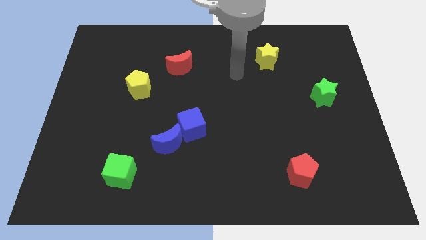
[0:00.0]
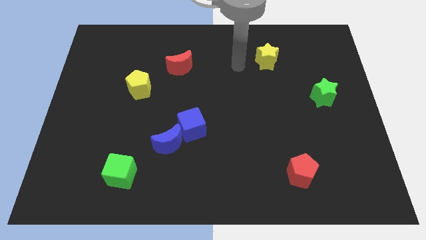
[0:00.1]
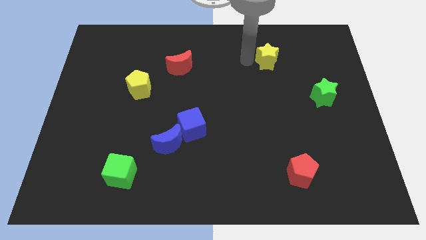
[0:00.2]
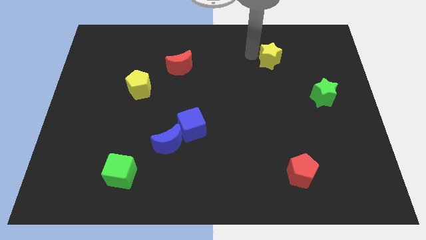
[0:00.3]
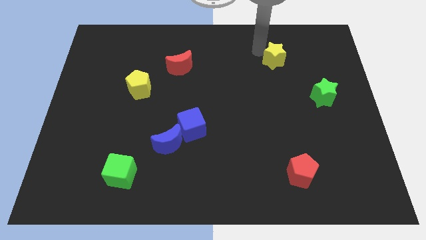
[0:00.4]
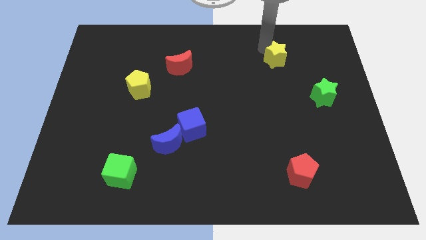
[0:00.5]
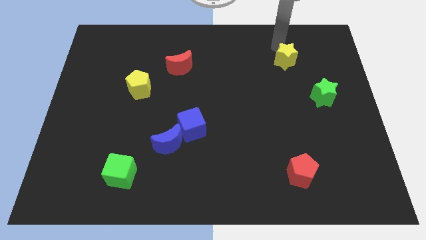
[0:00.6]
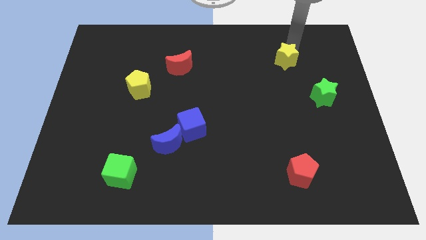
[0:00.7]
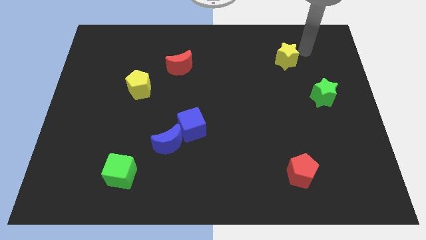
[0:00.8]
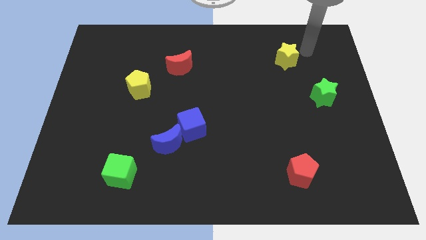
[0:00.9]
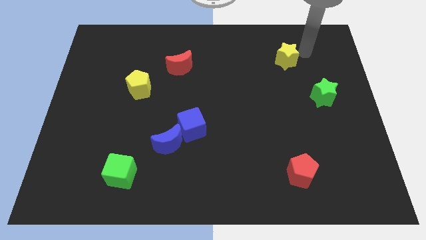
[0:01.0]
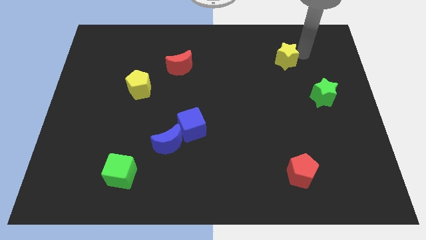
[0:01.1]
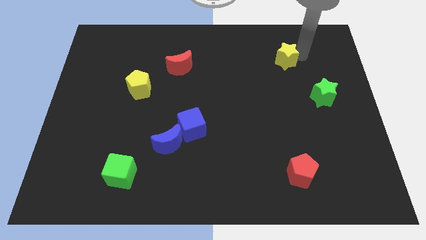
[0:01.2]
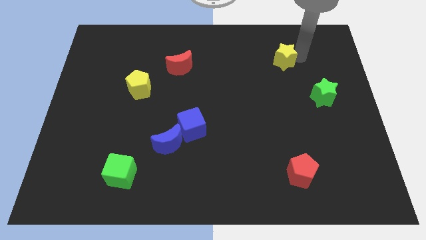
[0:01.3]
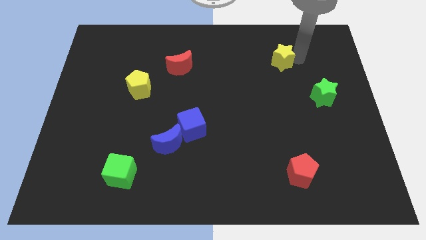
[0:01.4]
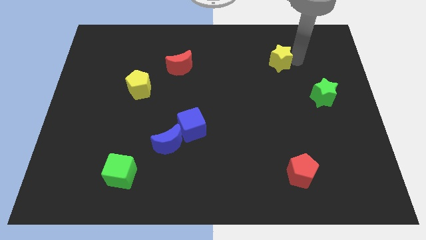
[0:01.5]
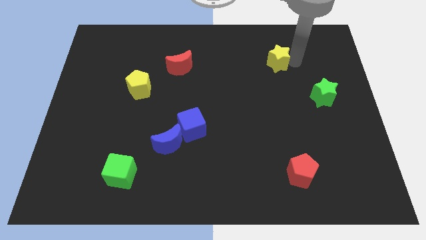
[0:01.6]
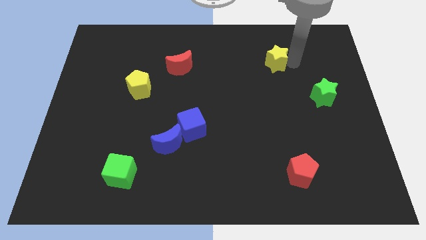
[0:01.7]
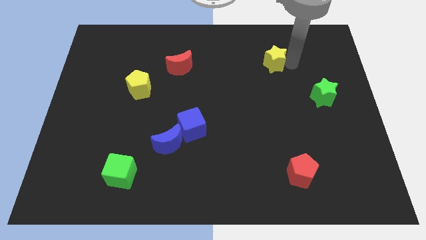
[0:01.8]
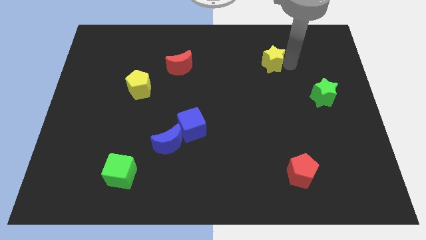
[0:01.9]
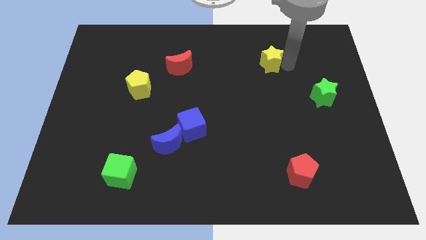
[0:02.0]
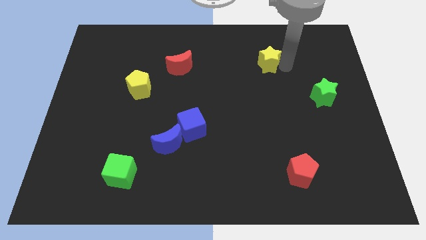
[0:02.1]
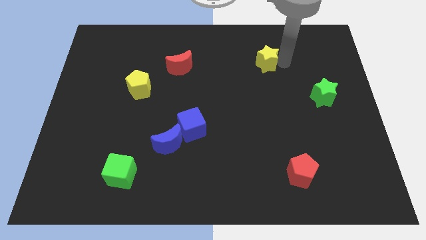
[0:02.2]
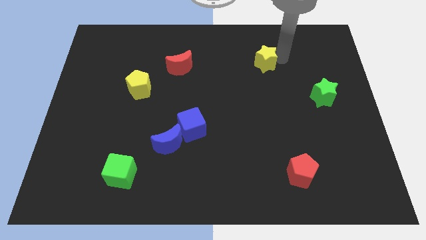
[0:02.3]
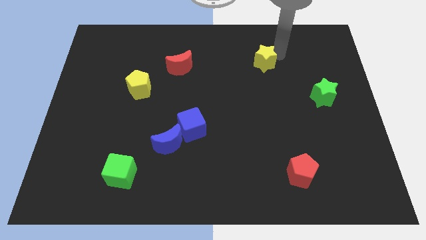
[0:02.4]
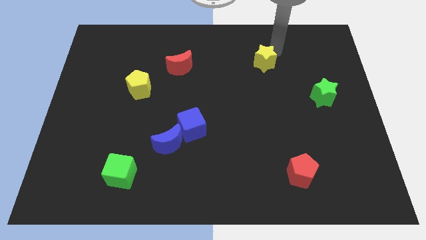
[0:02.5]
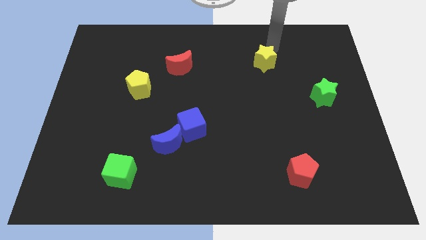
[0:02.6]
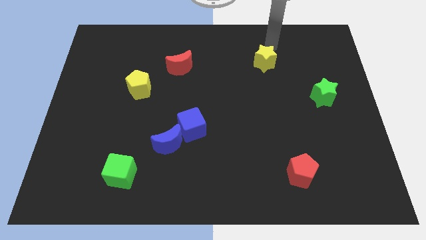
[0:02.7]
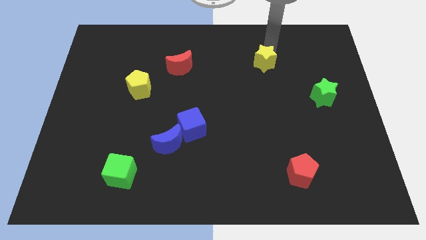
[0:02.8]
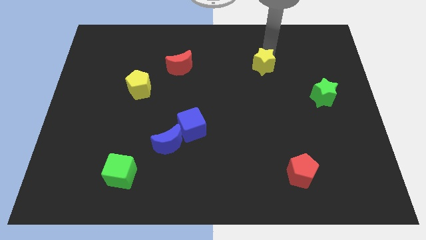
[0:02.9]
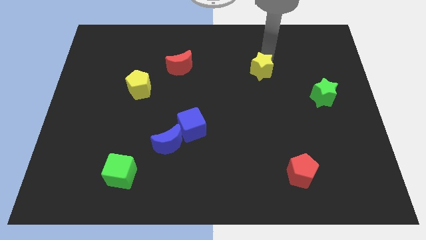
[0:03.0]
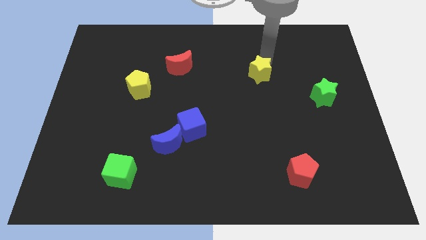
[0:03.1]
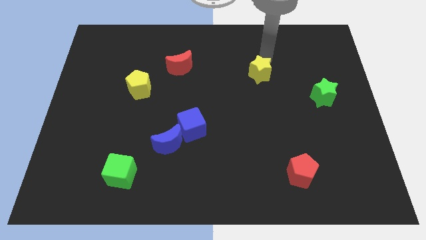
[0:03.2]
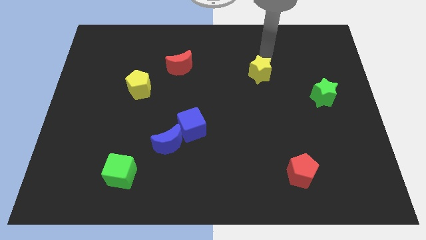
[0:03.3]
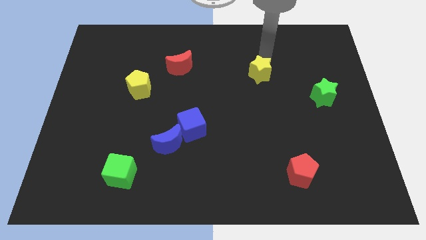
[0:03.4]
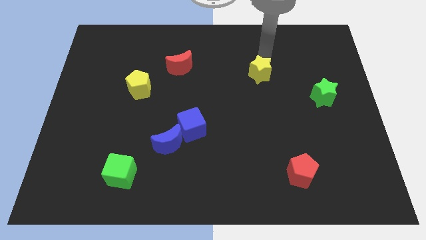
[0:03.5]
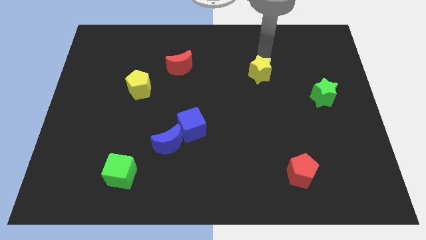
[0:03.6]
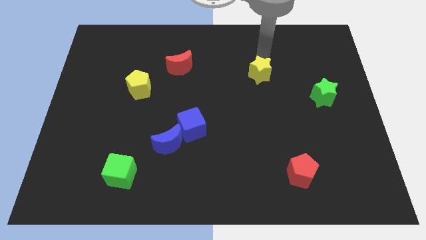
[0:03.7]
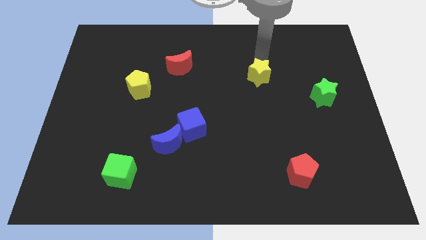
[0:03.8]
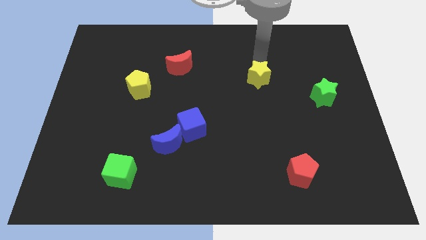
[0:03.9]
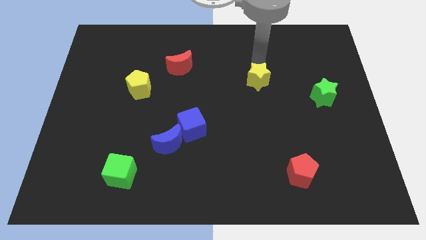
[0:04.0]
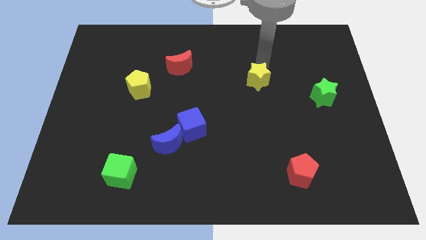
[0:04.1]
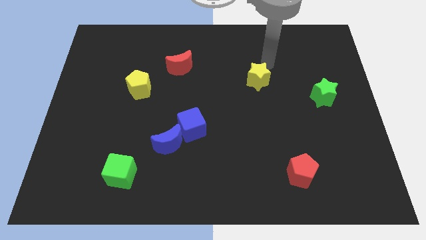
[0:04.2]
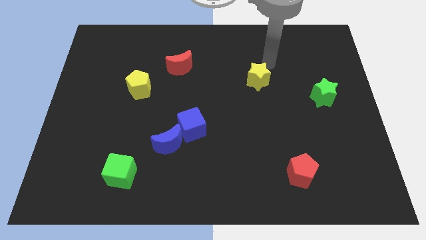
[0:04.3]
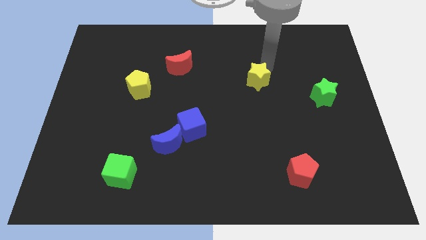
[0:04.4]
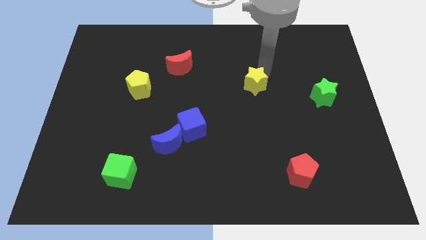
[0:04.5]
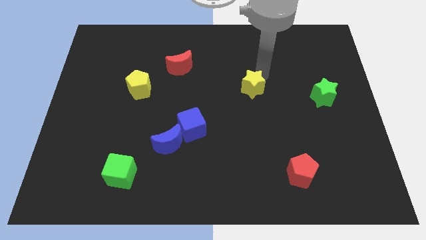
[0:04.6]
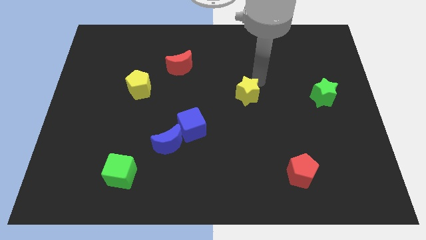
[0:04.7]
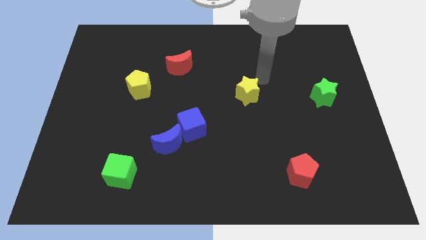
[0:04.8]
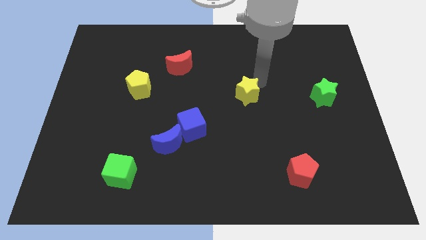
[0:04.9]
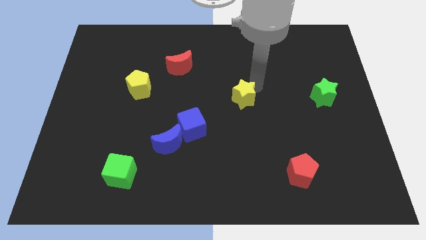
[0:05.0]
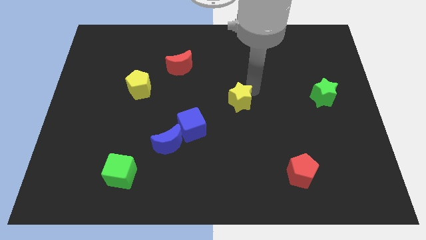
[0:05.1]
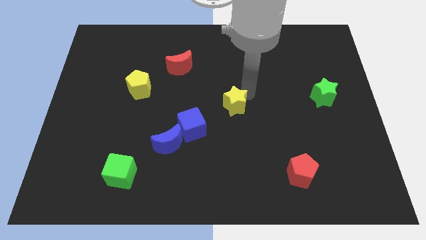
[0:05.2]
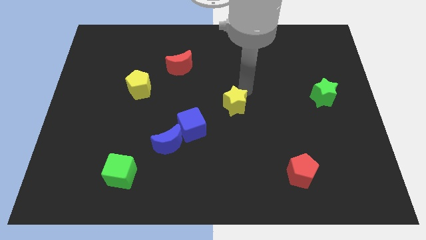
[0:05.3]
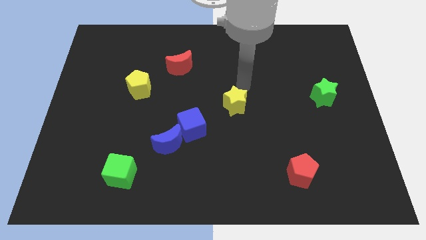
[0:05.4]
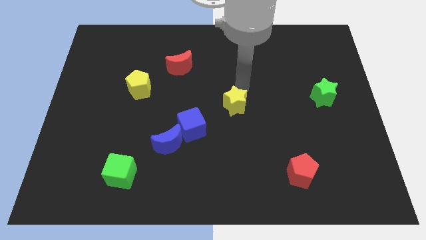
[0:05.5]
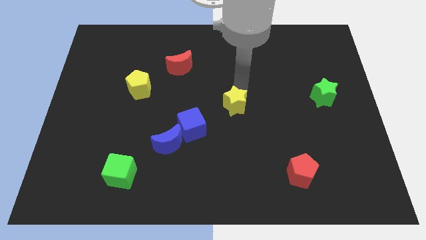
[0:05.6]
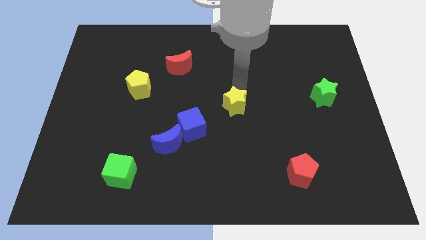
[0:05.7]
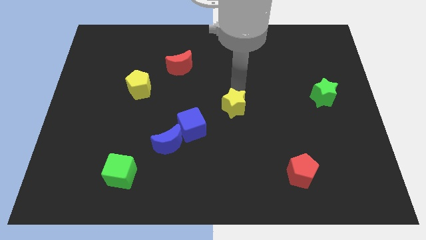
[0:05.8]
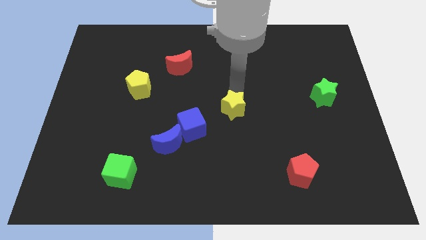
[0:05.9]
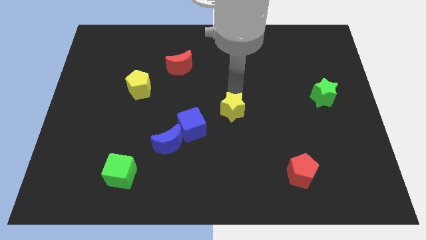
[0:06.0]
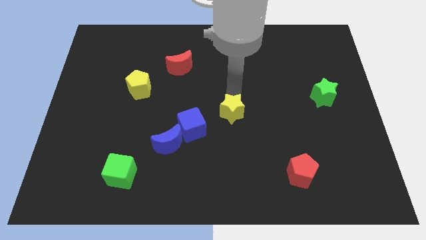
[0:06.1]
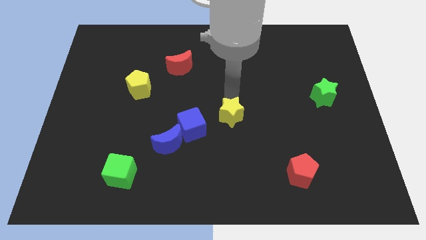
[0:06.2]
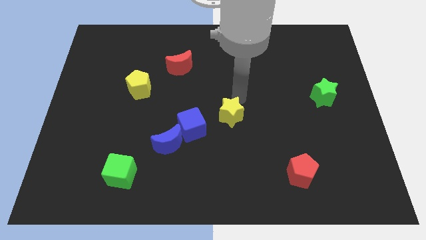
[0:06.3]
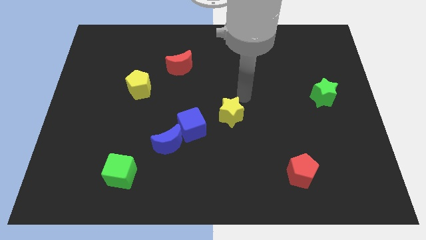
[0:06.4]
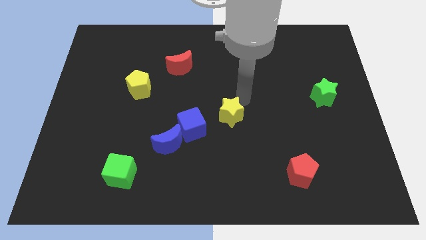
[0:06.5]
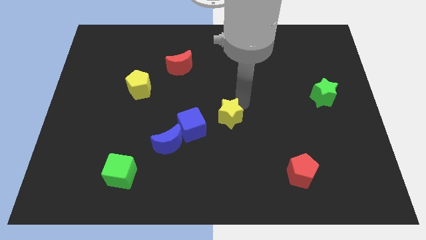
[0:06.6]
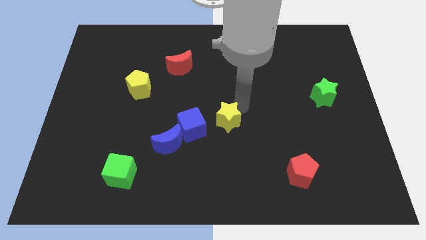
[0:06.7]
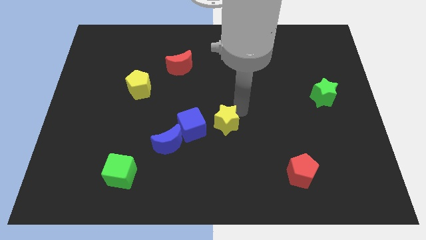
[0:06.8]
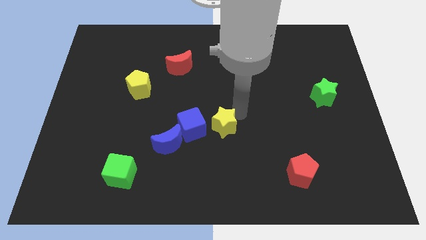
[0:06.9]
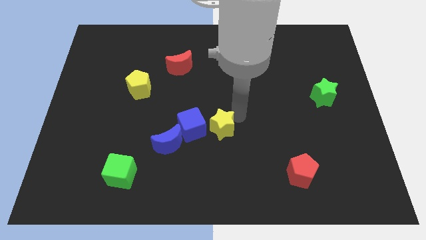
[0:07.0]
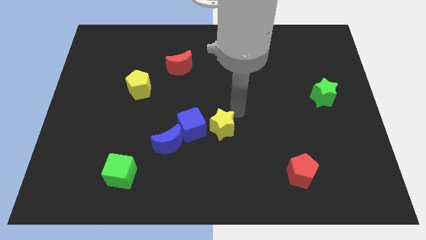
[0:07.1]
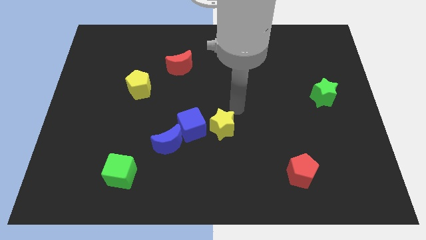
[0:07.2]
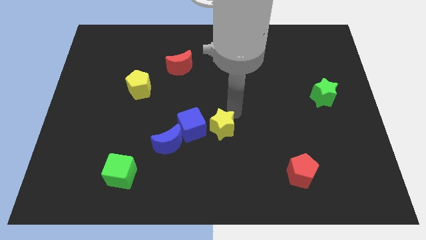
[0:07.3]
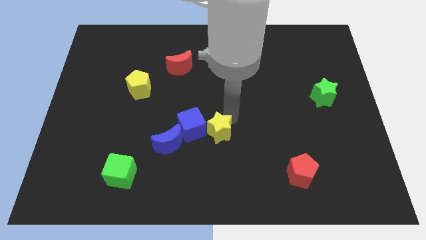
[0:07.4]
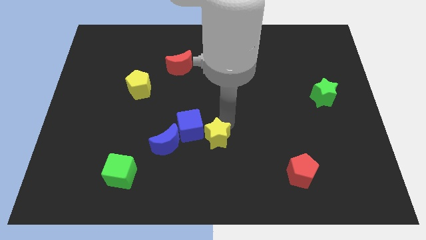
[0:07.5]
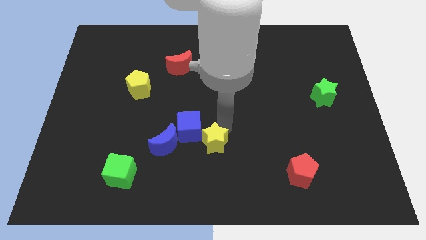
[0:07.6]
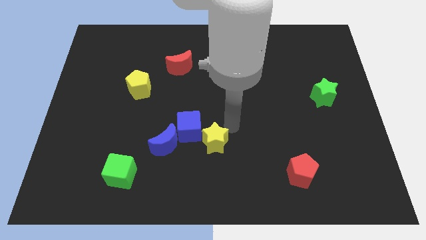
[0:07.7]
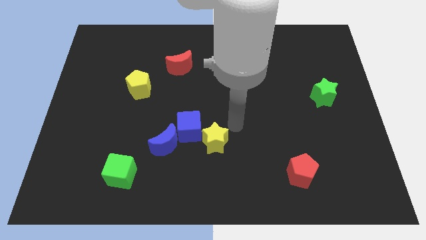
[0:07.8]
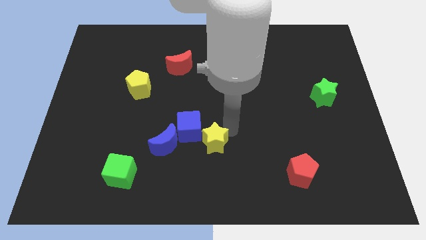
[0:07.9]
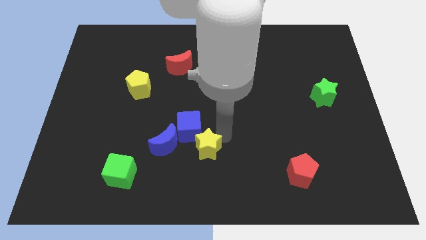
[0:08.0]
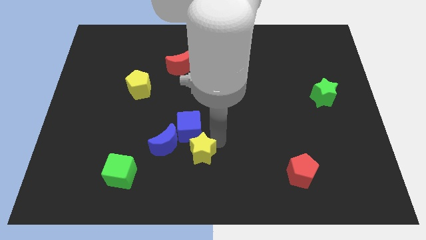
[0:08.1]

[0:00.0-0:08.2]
slide the yellow star to the bottom right side of the blue moon
